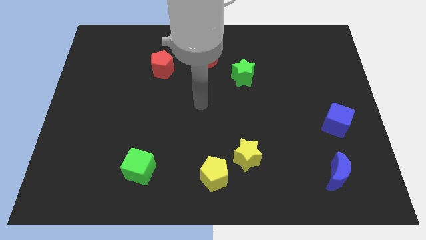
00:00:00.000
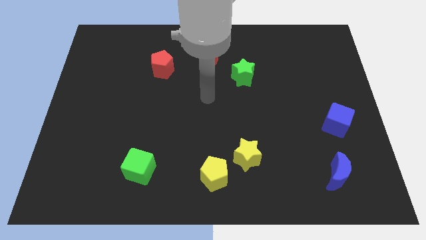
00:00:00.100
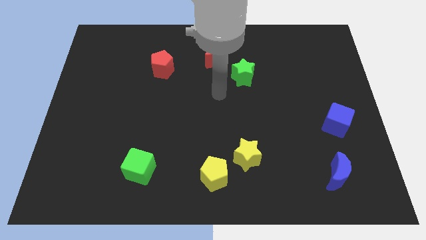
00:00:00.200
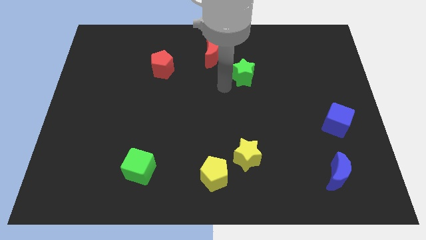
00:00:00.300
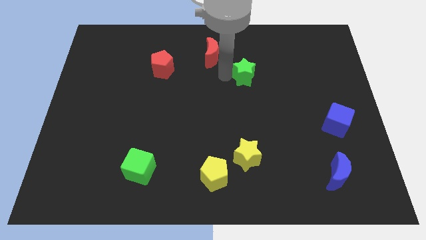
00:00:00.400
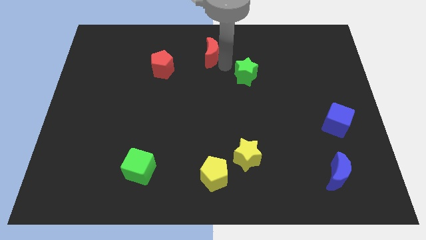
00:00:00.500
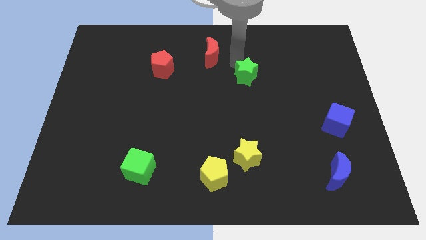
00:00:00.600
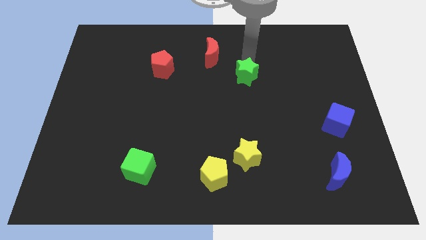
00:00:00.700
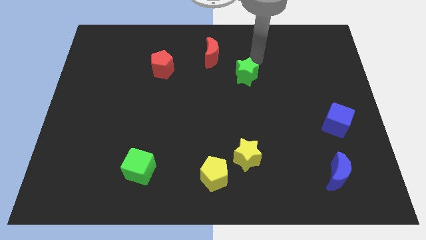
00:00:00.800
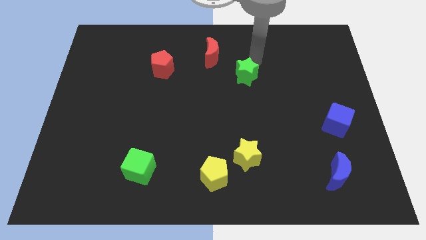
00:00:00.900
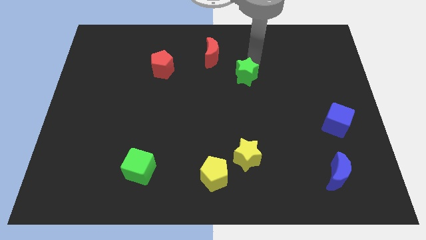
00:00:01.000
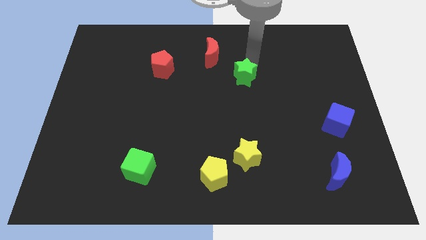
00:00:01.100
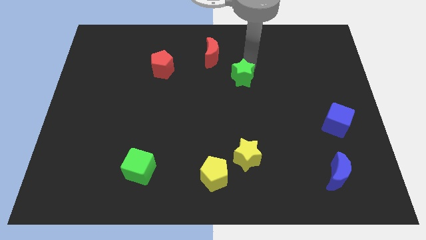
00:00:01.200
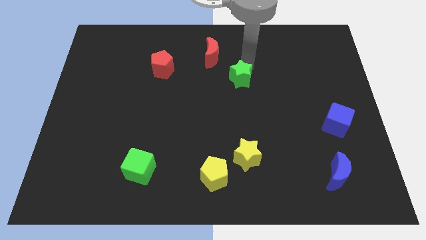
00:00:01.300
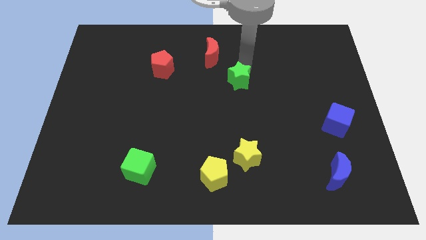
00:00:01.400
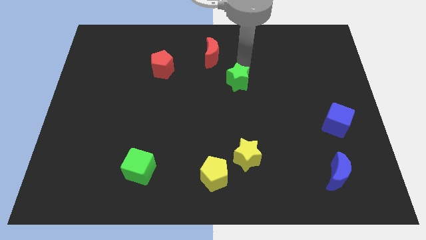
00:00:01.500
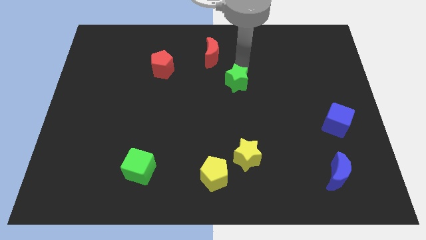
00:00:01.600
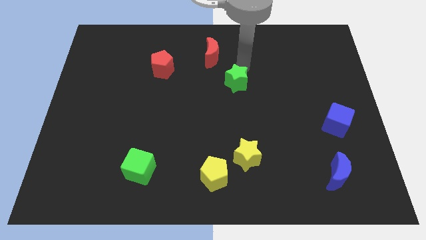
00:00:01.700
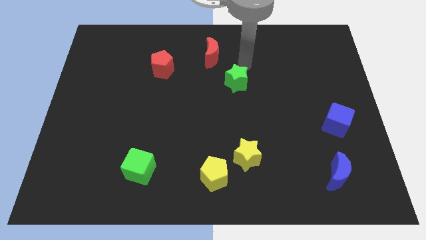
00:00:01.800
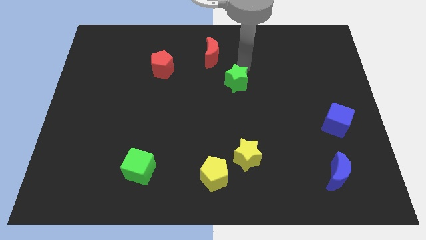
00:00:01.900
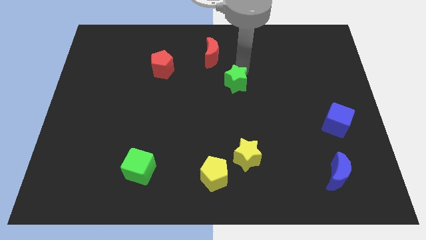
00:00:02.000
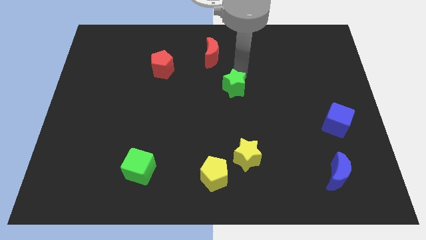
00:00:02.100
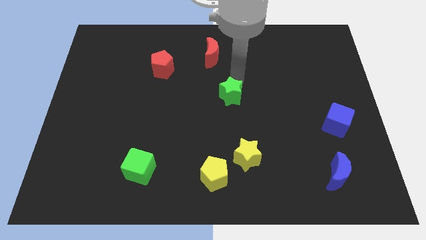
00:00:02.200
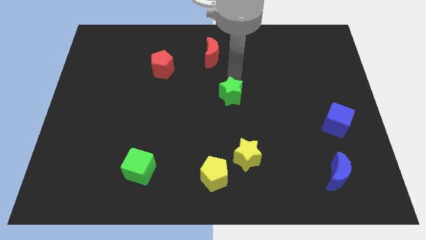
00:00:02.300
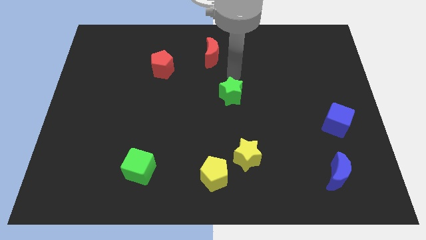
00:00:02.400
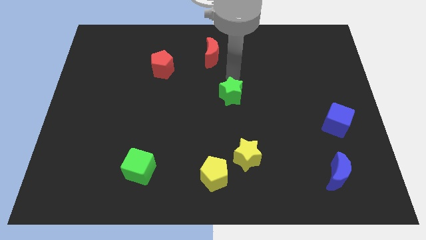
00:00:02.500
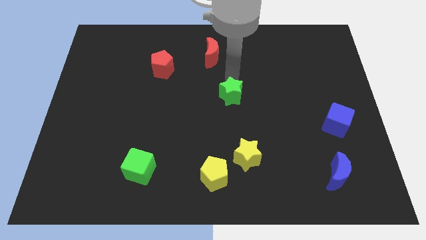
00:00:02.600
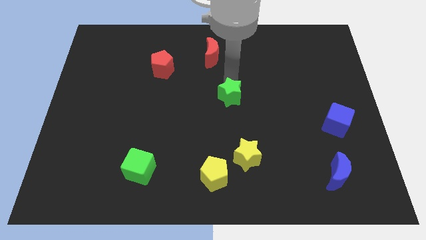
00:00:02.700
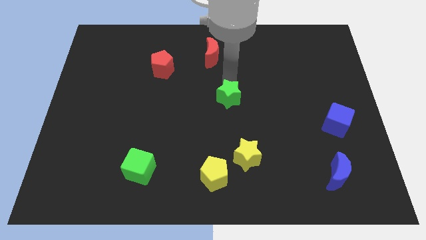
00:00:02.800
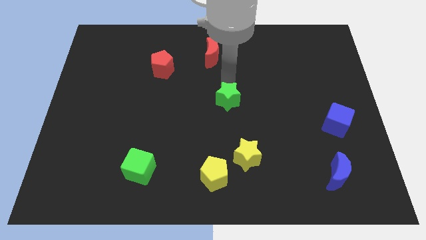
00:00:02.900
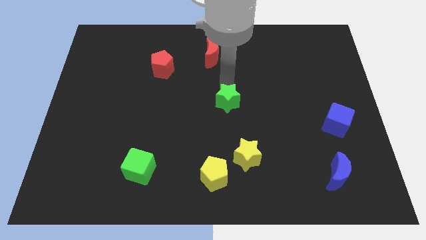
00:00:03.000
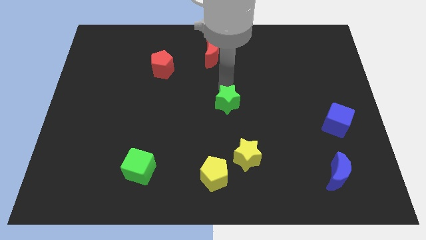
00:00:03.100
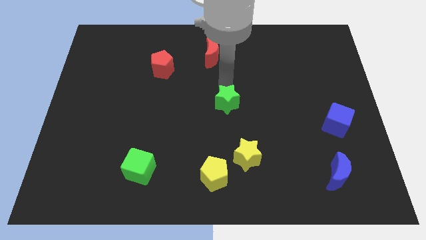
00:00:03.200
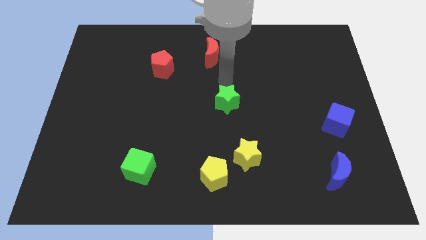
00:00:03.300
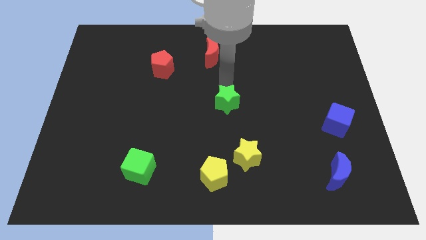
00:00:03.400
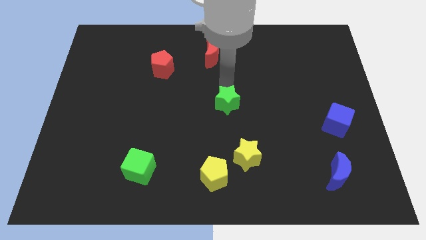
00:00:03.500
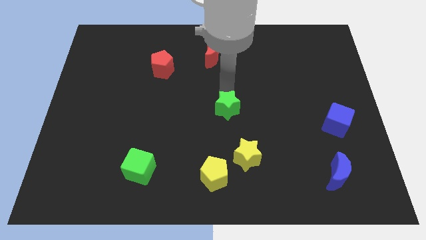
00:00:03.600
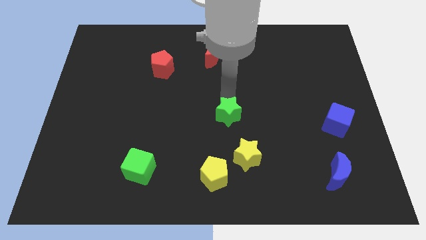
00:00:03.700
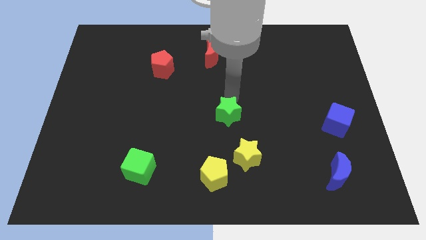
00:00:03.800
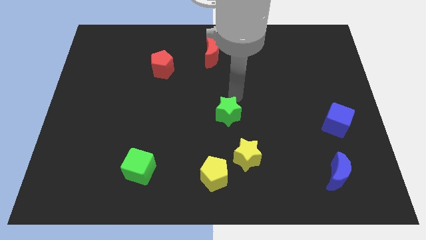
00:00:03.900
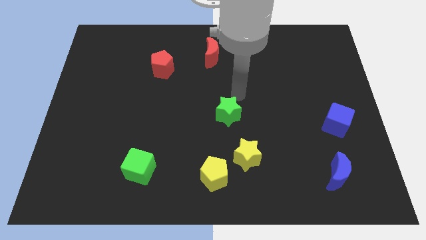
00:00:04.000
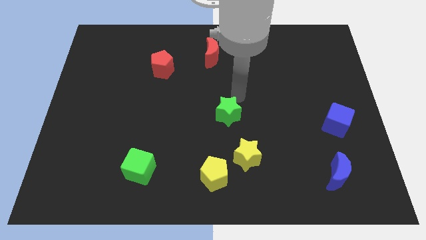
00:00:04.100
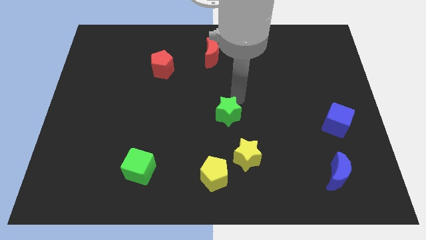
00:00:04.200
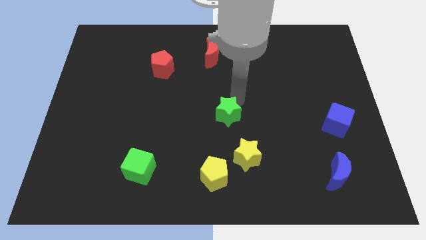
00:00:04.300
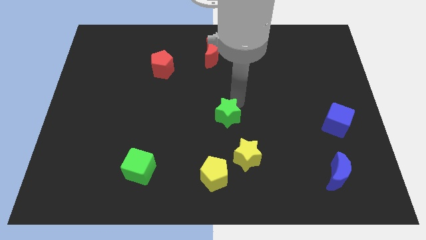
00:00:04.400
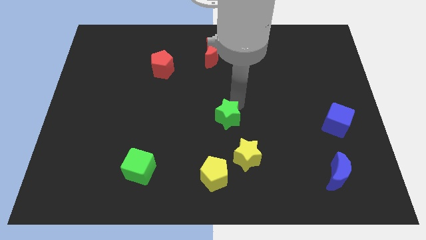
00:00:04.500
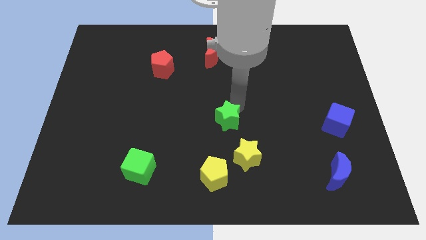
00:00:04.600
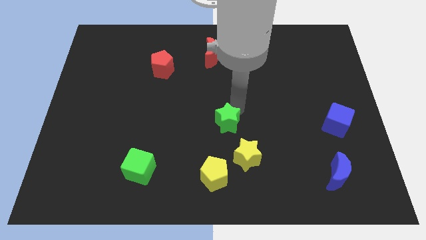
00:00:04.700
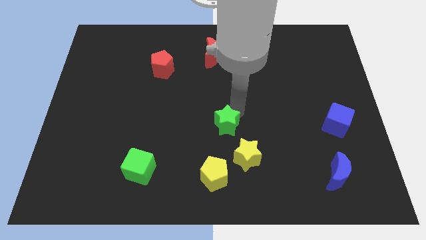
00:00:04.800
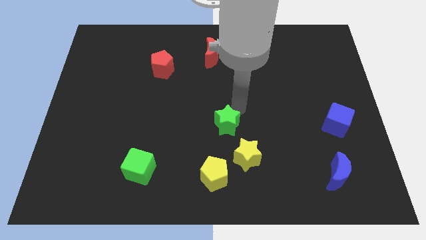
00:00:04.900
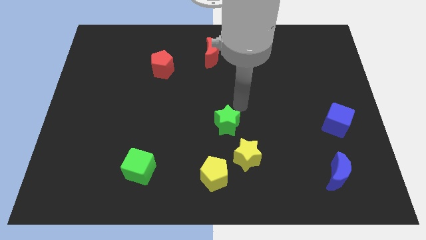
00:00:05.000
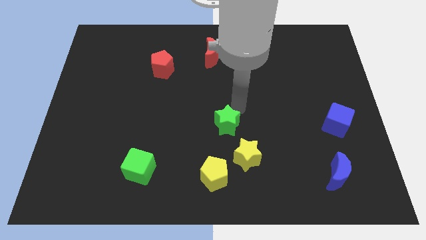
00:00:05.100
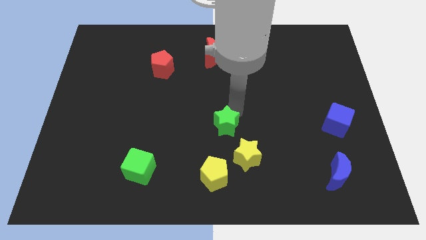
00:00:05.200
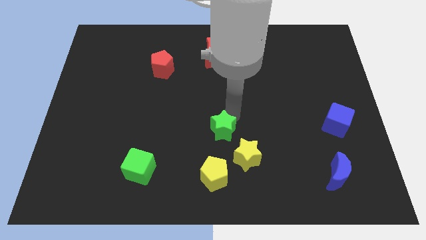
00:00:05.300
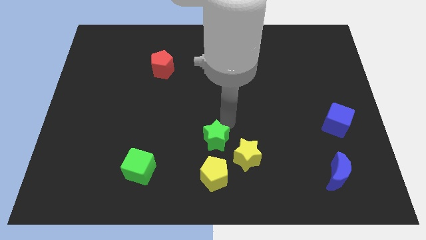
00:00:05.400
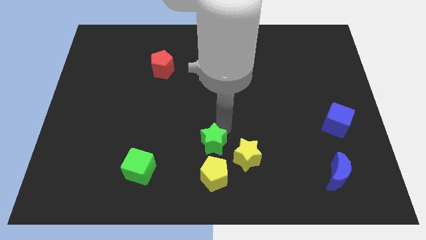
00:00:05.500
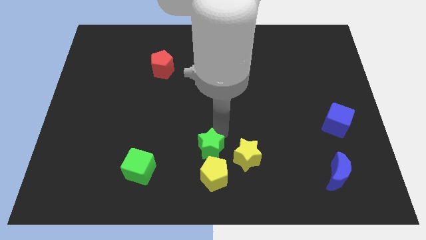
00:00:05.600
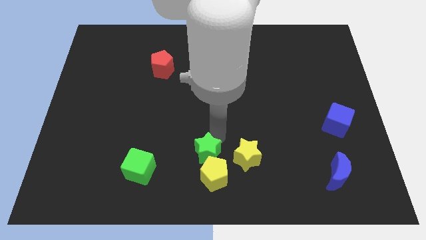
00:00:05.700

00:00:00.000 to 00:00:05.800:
push the green star to the bottom

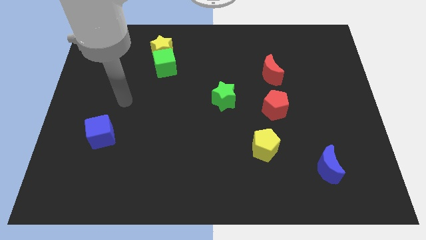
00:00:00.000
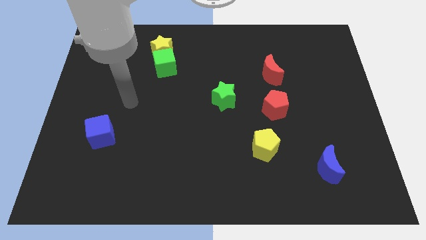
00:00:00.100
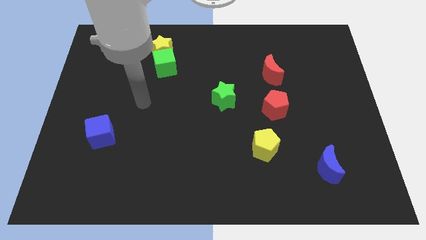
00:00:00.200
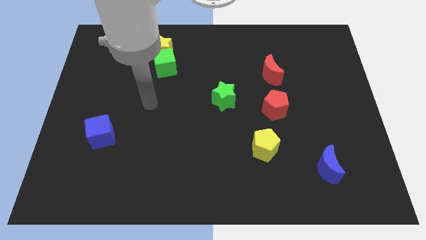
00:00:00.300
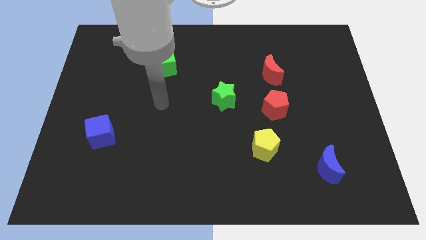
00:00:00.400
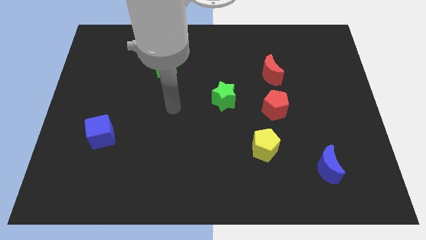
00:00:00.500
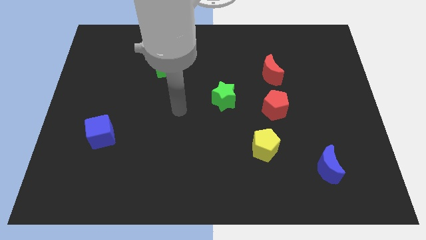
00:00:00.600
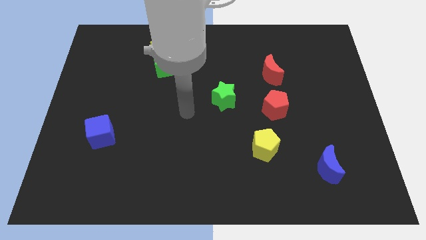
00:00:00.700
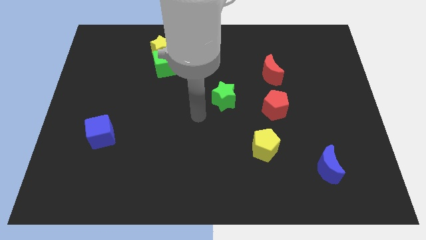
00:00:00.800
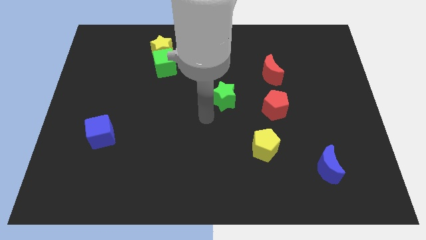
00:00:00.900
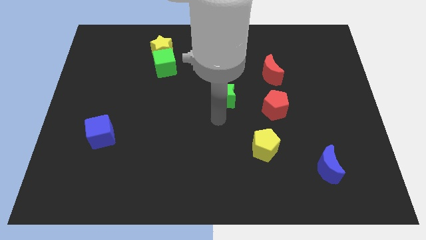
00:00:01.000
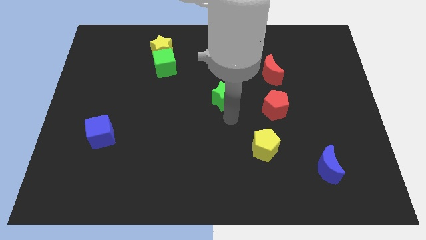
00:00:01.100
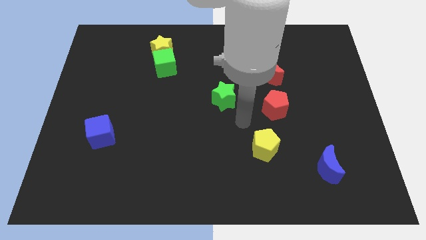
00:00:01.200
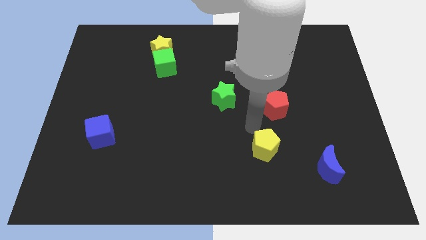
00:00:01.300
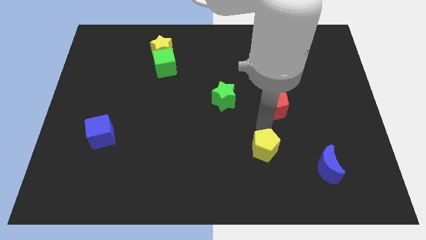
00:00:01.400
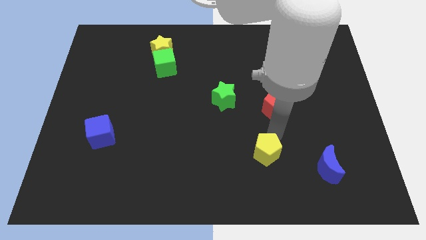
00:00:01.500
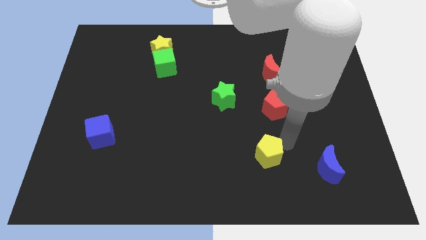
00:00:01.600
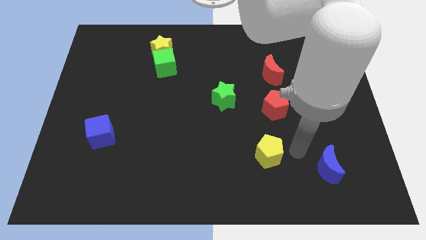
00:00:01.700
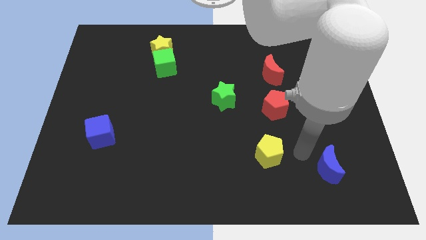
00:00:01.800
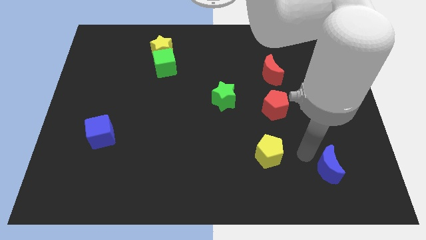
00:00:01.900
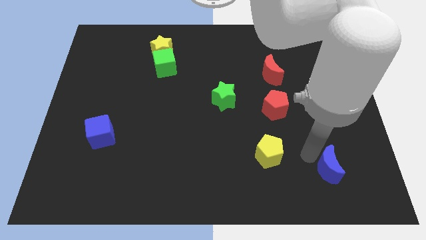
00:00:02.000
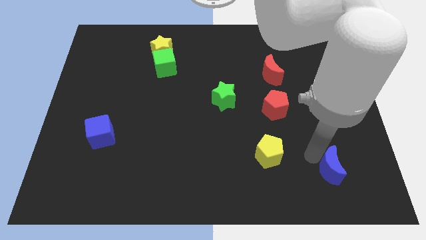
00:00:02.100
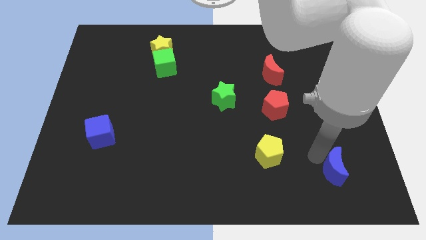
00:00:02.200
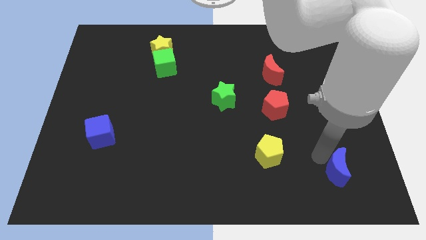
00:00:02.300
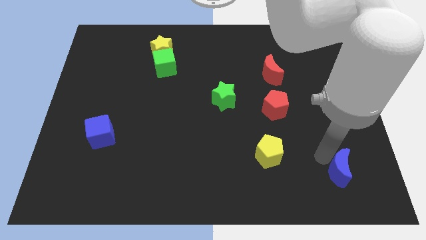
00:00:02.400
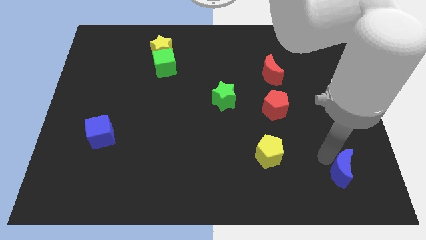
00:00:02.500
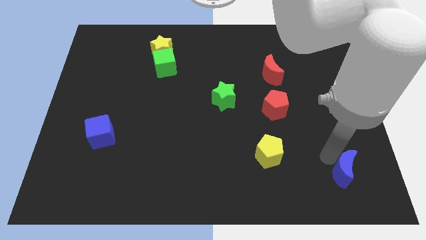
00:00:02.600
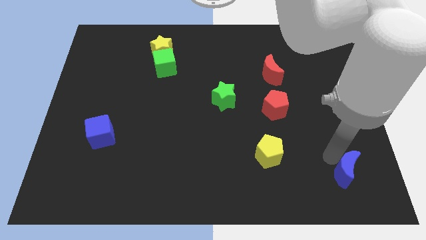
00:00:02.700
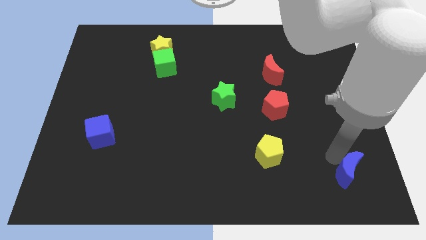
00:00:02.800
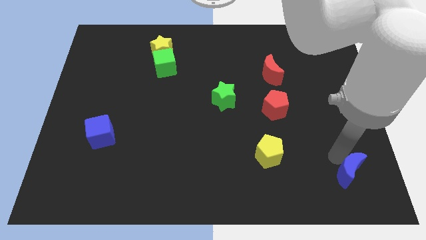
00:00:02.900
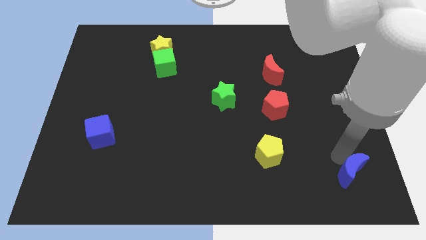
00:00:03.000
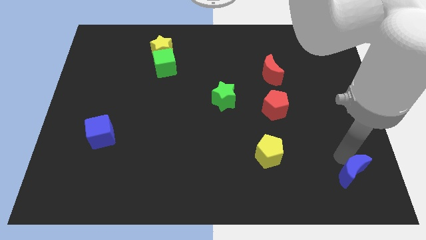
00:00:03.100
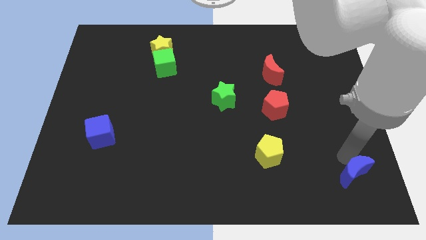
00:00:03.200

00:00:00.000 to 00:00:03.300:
slide the blue moon to the lower right corner
